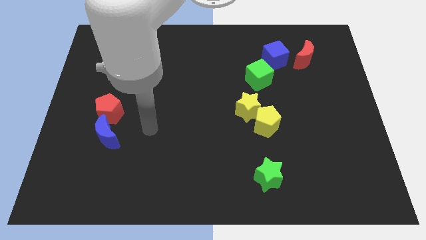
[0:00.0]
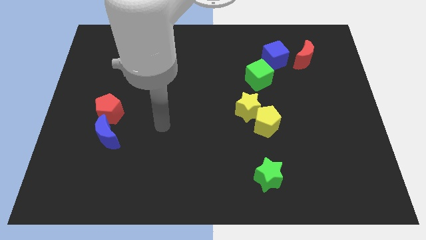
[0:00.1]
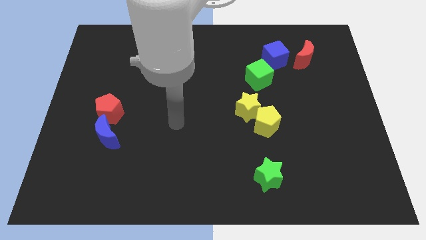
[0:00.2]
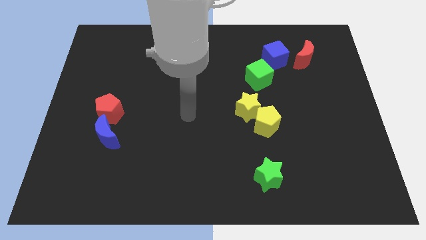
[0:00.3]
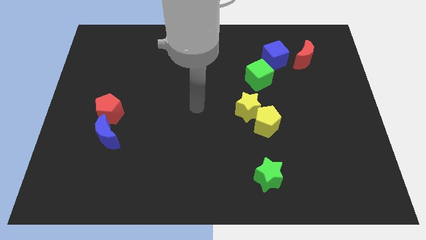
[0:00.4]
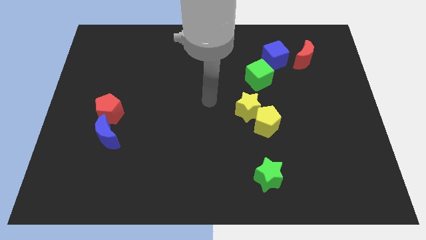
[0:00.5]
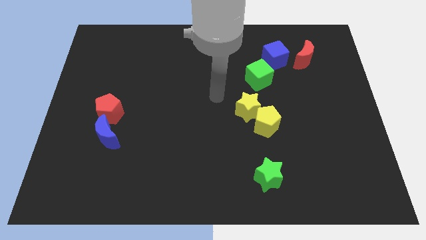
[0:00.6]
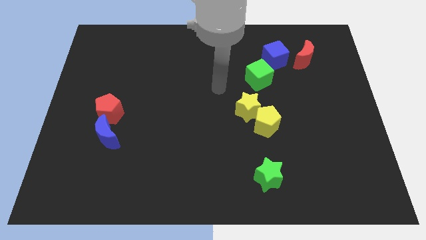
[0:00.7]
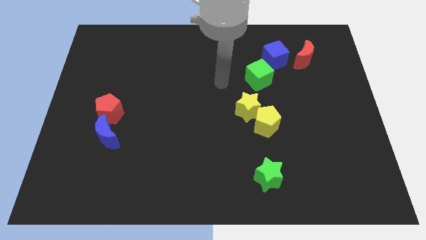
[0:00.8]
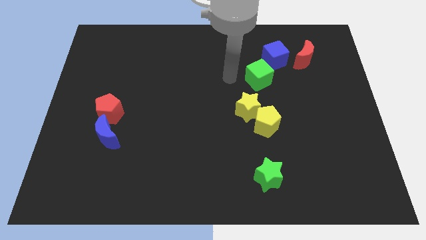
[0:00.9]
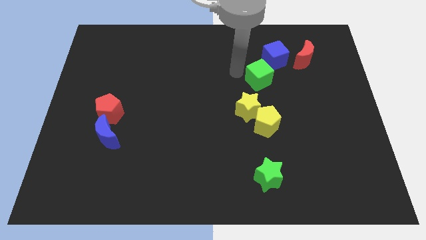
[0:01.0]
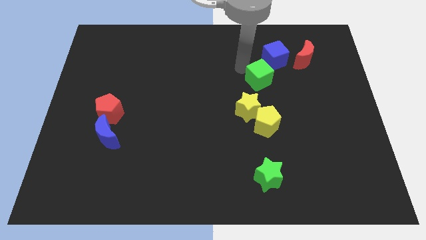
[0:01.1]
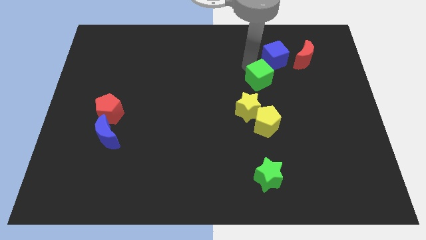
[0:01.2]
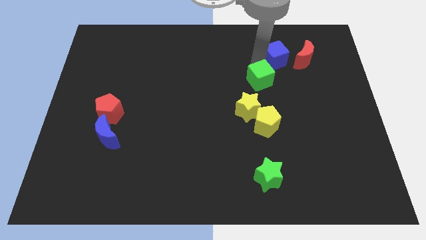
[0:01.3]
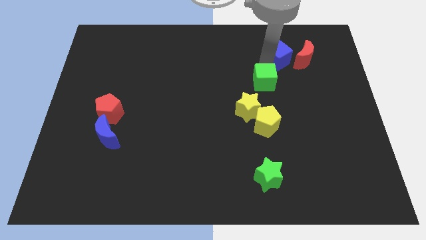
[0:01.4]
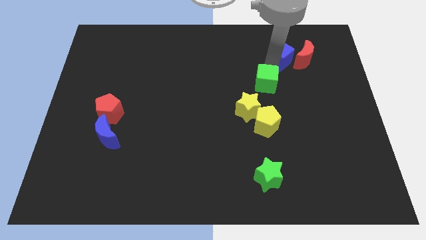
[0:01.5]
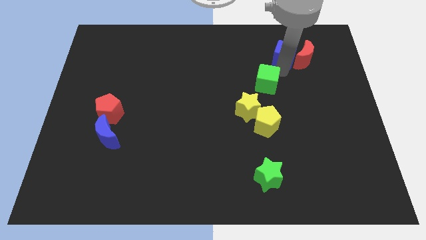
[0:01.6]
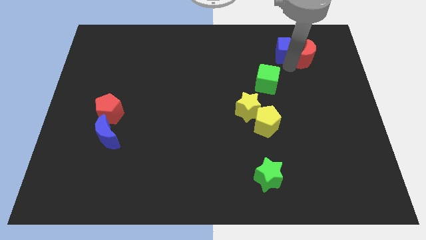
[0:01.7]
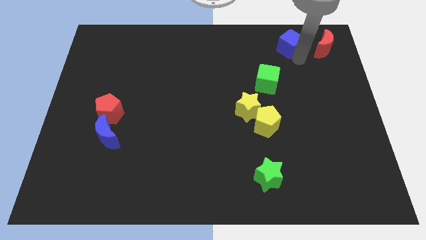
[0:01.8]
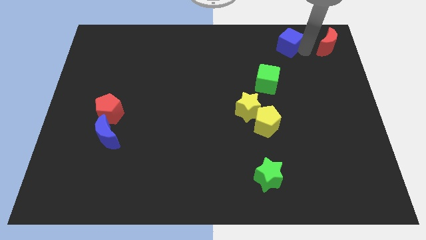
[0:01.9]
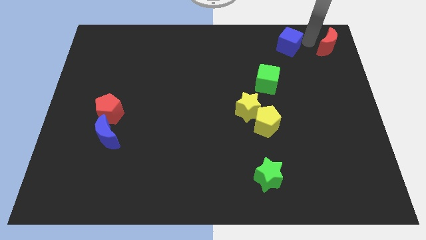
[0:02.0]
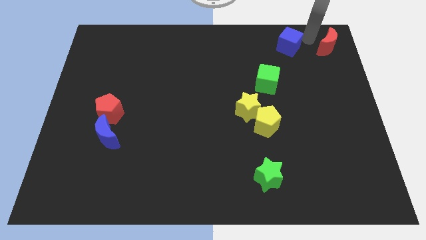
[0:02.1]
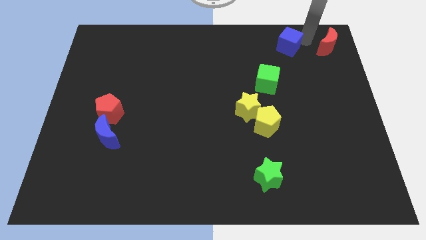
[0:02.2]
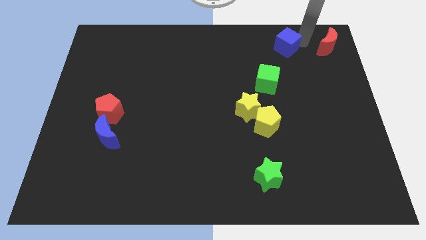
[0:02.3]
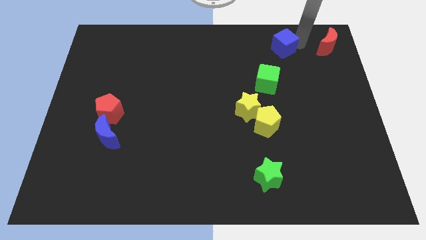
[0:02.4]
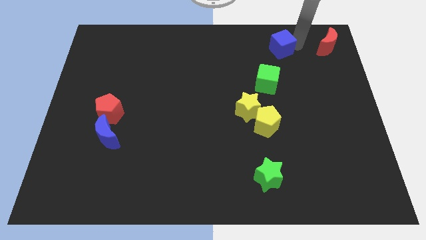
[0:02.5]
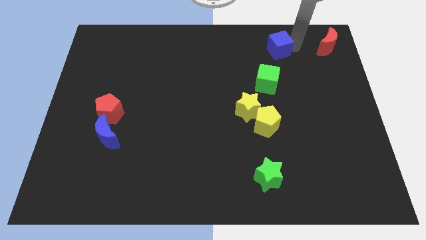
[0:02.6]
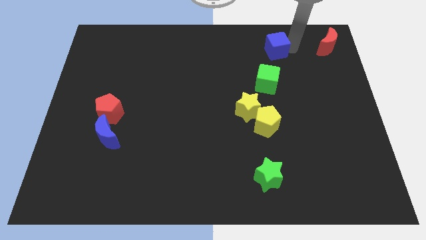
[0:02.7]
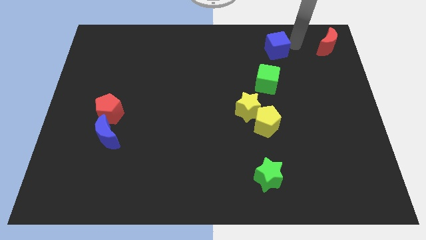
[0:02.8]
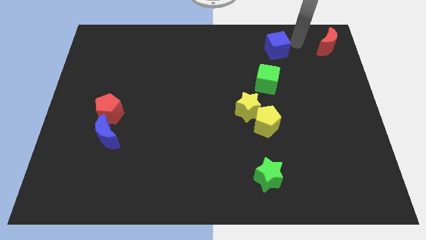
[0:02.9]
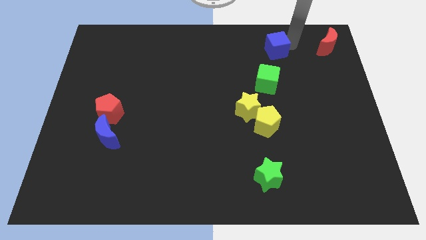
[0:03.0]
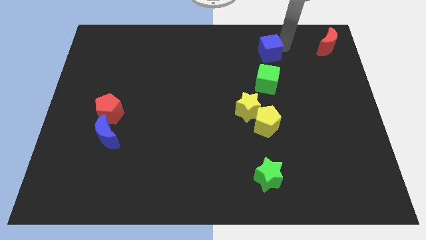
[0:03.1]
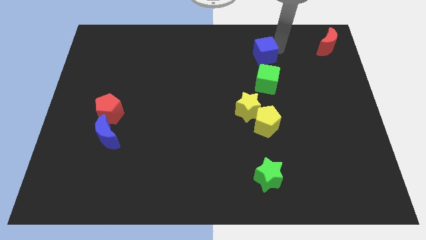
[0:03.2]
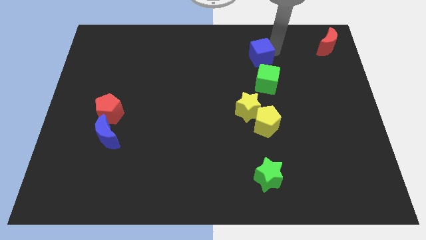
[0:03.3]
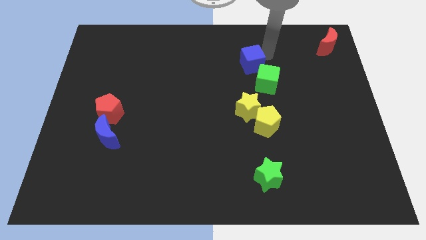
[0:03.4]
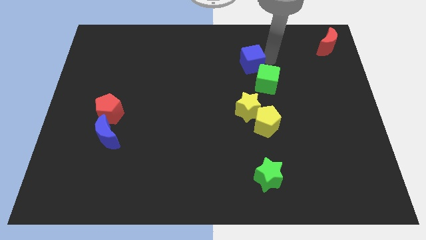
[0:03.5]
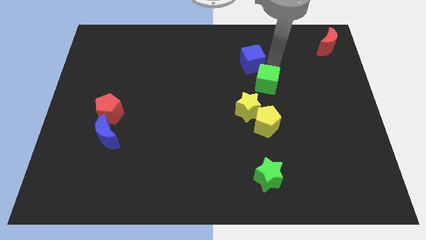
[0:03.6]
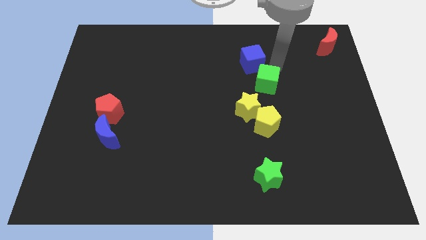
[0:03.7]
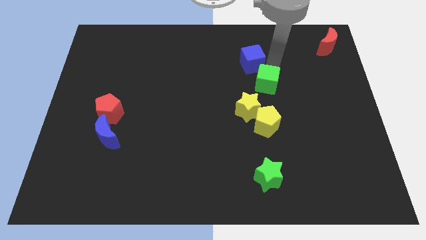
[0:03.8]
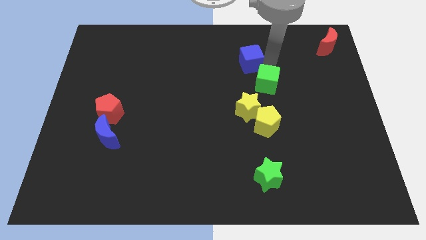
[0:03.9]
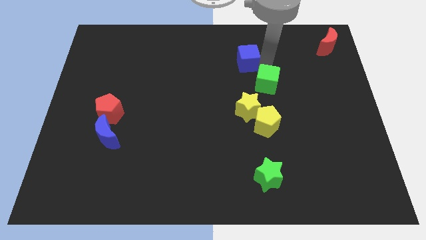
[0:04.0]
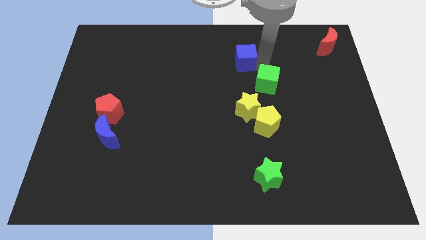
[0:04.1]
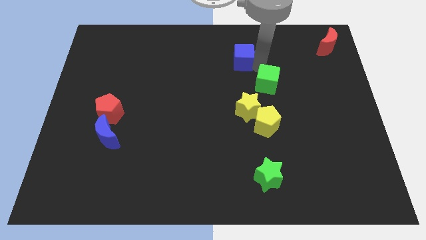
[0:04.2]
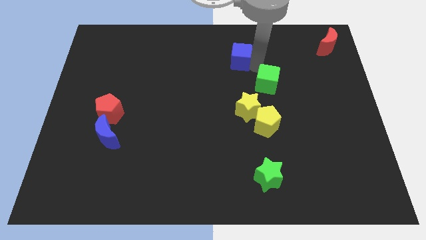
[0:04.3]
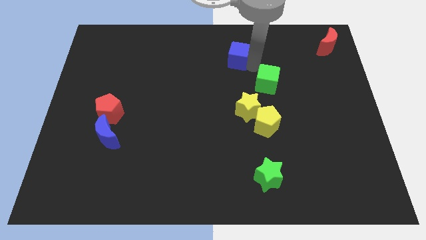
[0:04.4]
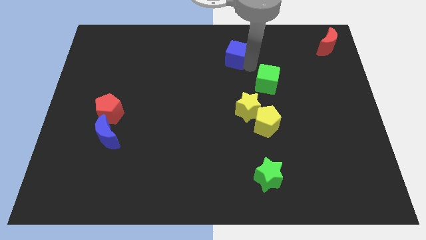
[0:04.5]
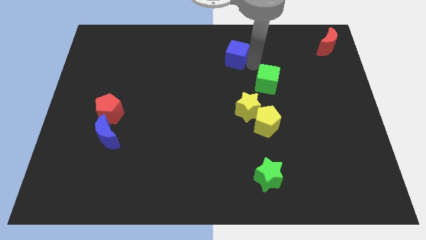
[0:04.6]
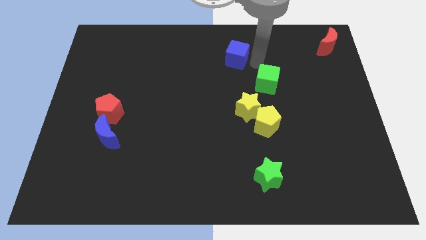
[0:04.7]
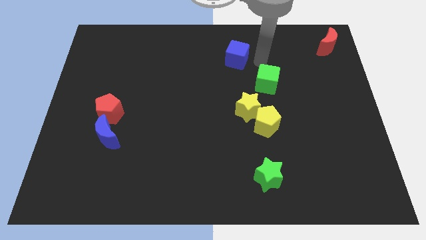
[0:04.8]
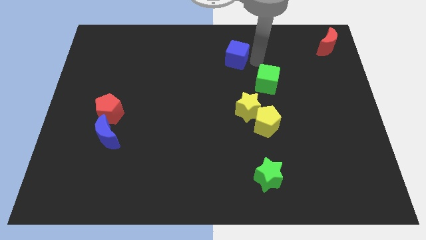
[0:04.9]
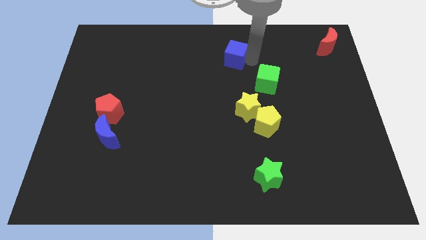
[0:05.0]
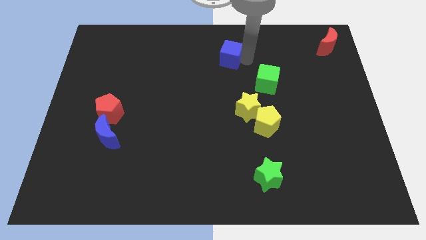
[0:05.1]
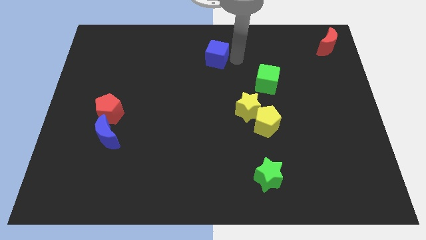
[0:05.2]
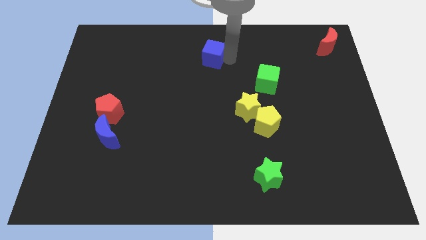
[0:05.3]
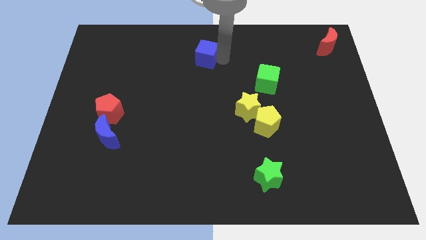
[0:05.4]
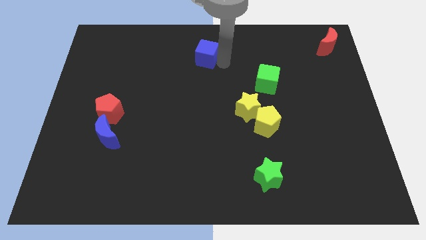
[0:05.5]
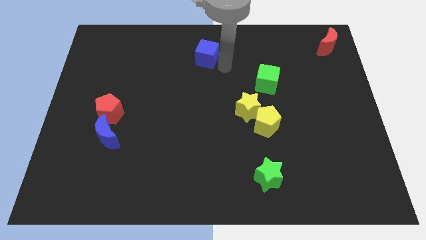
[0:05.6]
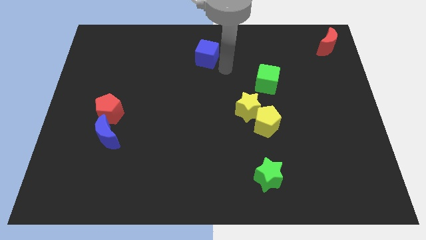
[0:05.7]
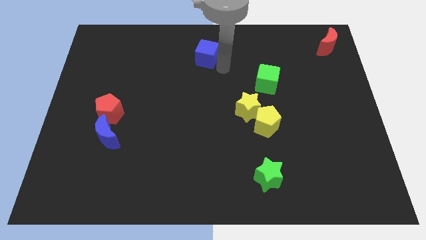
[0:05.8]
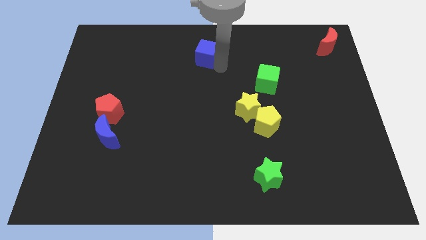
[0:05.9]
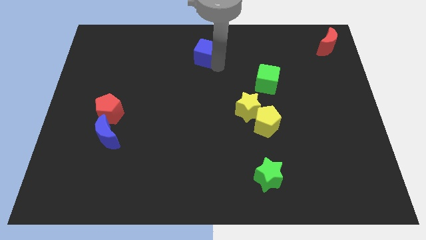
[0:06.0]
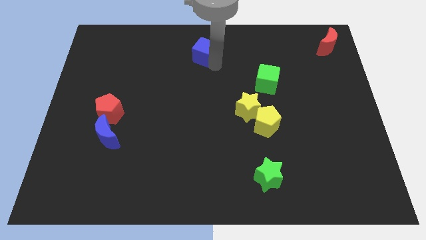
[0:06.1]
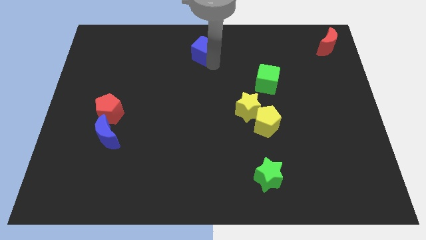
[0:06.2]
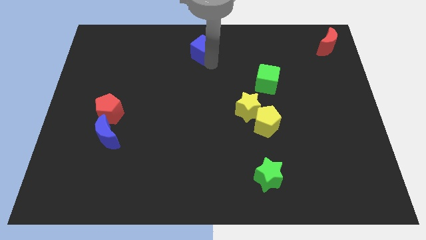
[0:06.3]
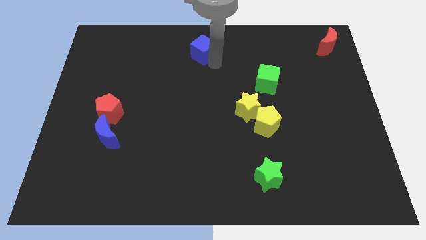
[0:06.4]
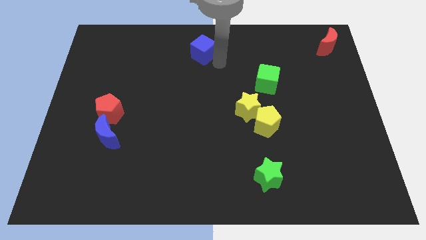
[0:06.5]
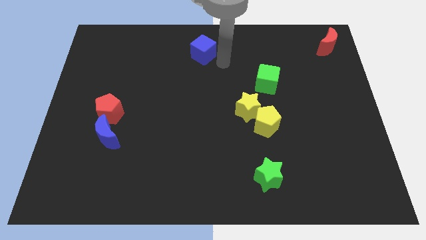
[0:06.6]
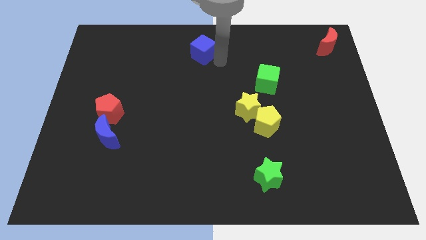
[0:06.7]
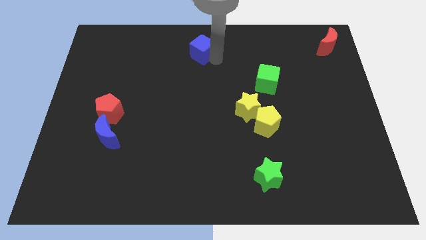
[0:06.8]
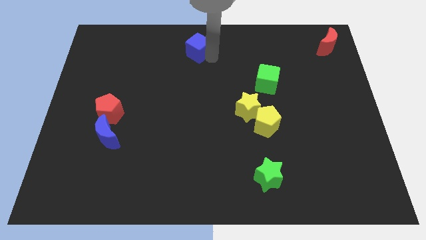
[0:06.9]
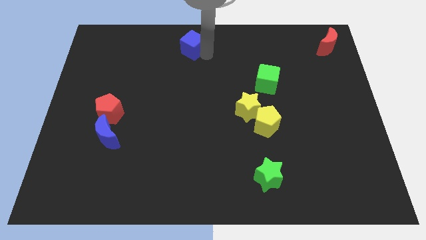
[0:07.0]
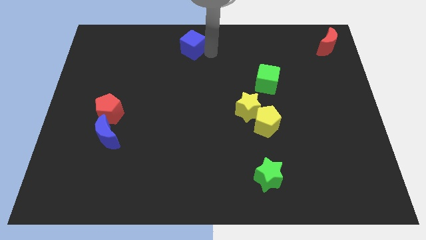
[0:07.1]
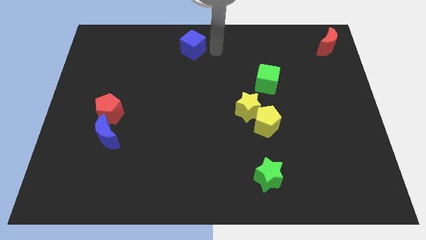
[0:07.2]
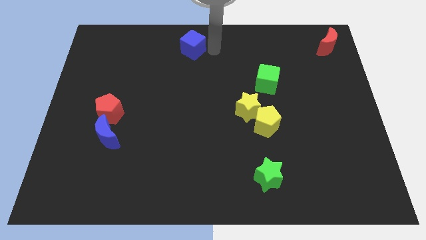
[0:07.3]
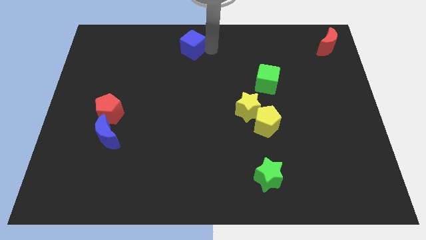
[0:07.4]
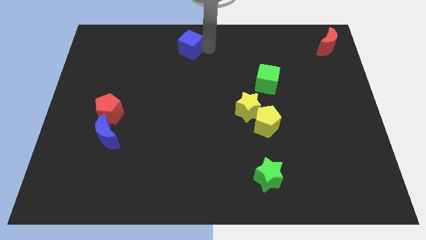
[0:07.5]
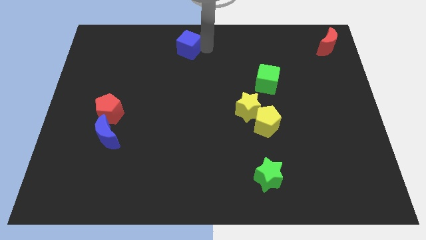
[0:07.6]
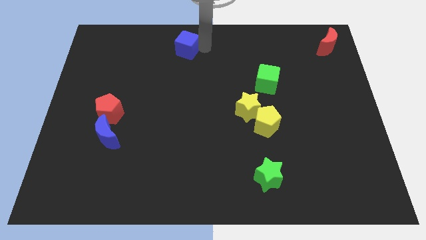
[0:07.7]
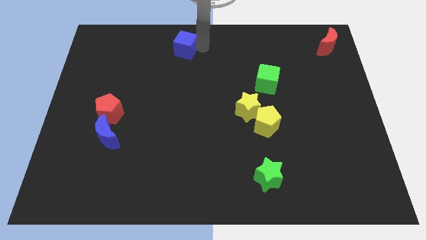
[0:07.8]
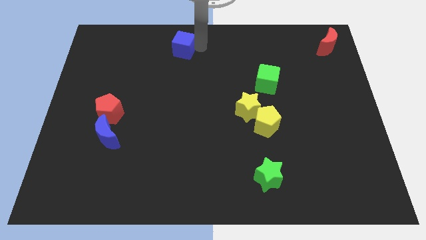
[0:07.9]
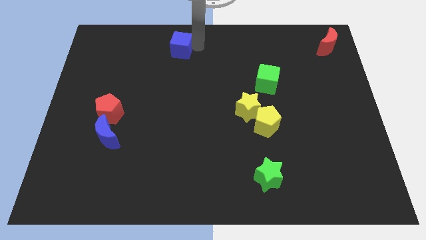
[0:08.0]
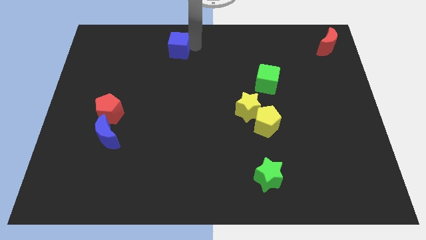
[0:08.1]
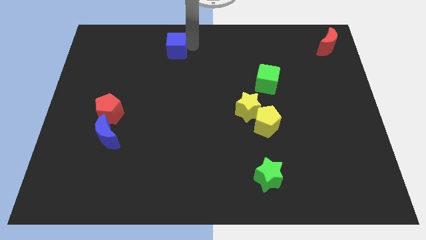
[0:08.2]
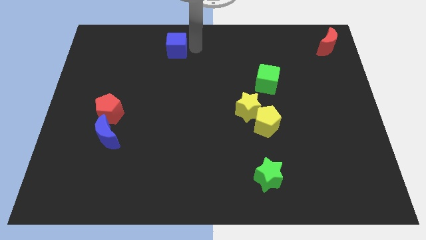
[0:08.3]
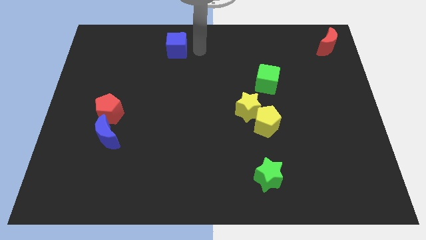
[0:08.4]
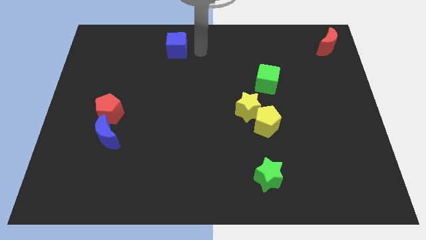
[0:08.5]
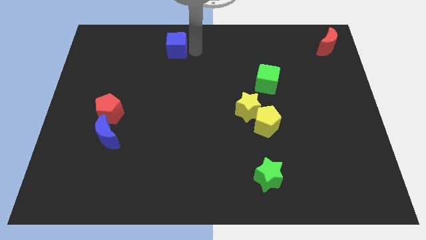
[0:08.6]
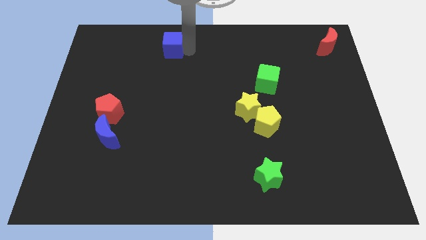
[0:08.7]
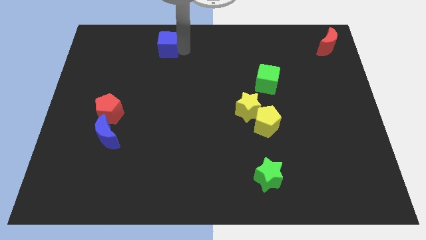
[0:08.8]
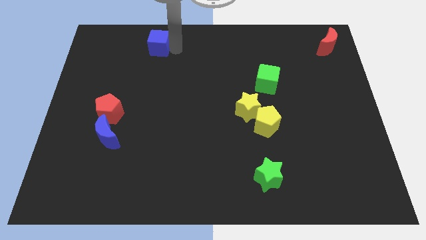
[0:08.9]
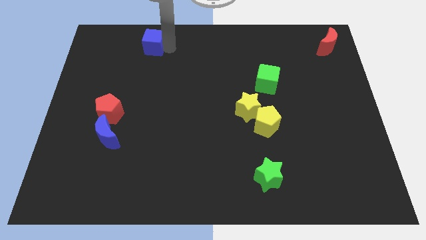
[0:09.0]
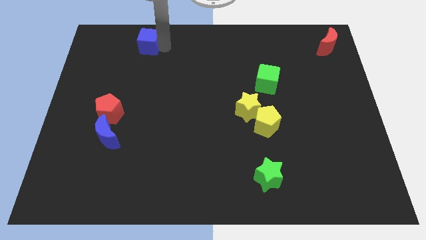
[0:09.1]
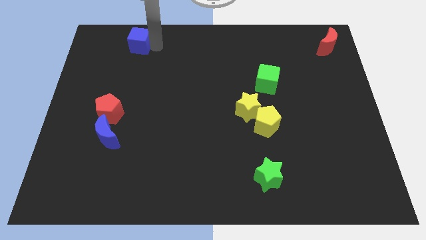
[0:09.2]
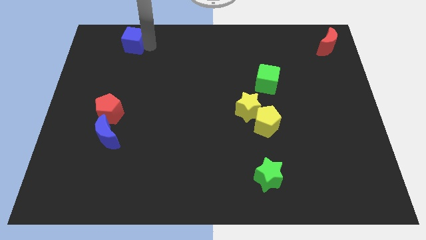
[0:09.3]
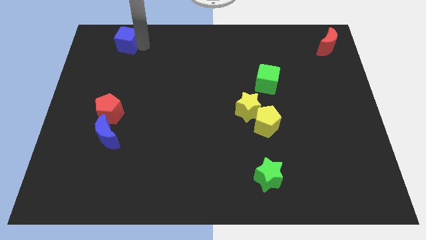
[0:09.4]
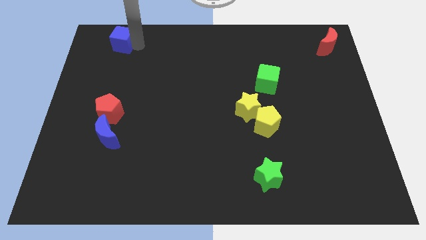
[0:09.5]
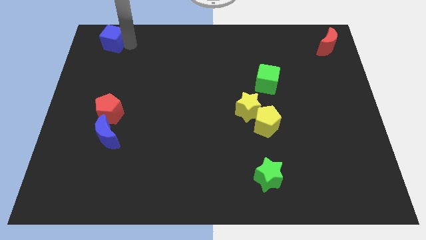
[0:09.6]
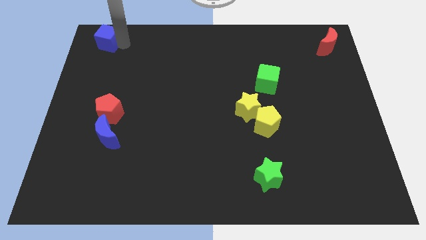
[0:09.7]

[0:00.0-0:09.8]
push the blue cube to the top left corner
